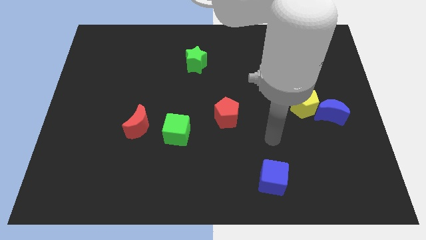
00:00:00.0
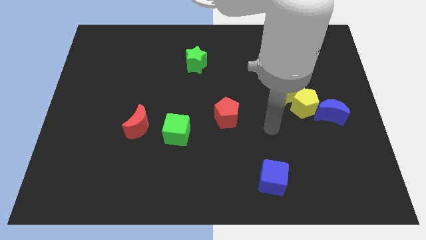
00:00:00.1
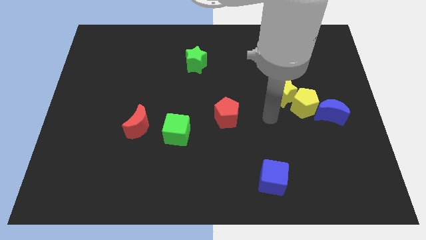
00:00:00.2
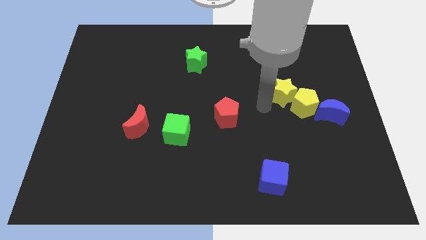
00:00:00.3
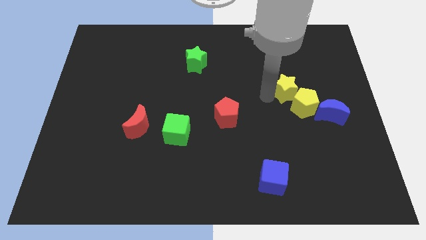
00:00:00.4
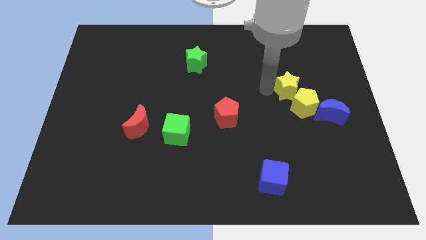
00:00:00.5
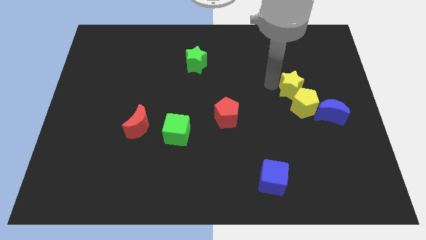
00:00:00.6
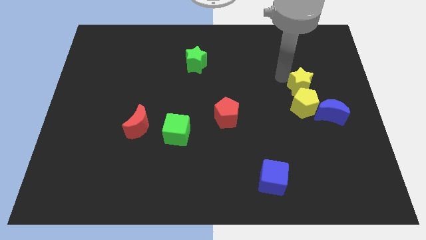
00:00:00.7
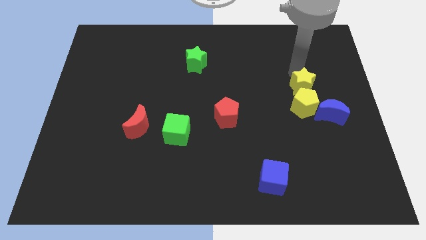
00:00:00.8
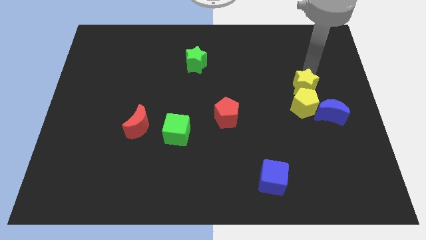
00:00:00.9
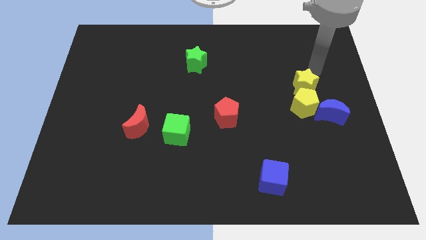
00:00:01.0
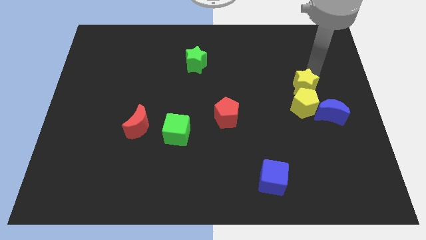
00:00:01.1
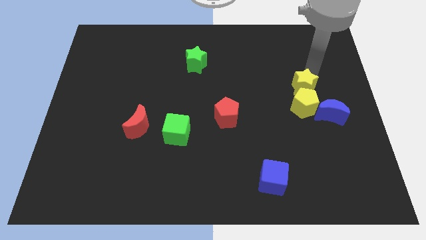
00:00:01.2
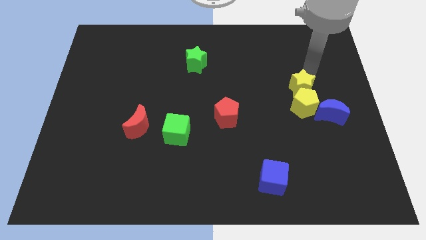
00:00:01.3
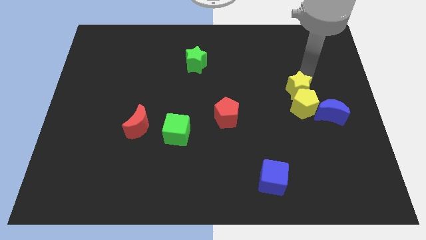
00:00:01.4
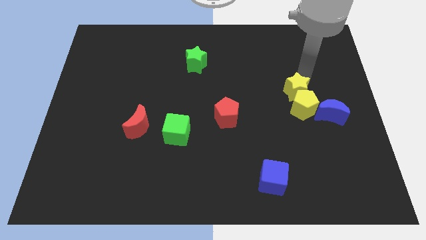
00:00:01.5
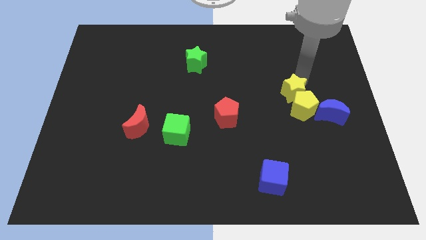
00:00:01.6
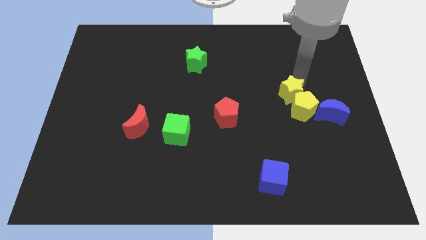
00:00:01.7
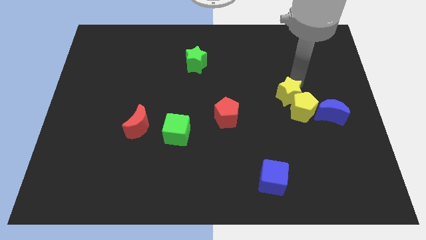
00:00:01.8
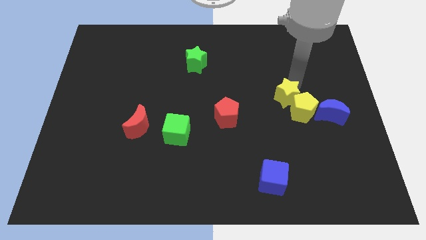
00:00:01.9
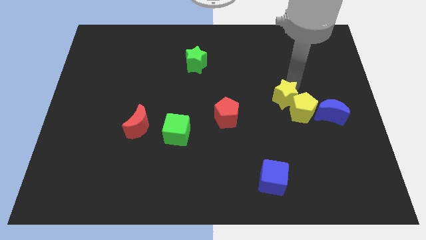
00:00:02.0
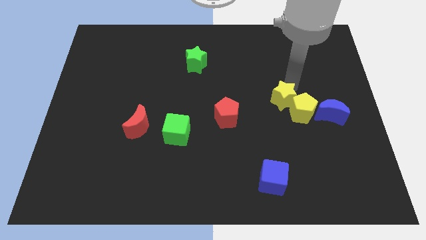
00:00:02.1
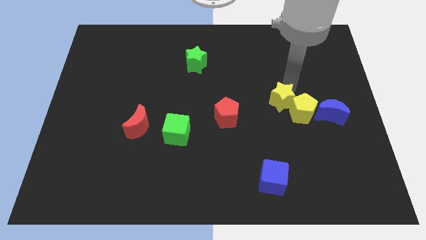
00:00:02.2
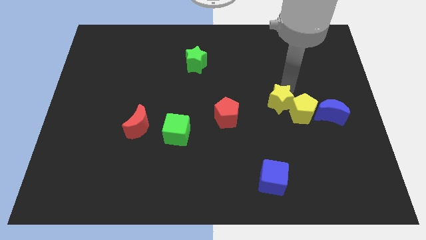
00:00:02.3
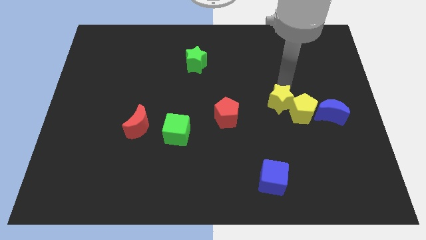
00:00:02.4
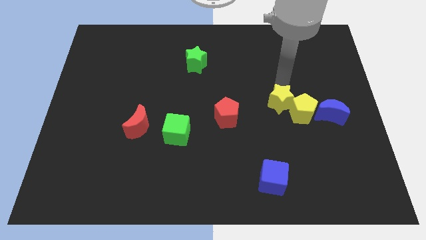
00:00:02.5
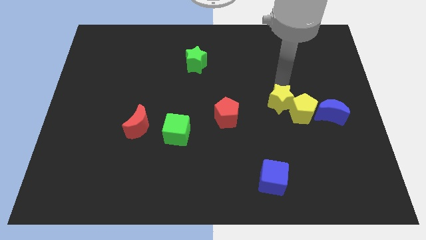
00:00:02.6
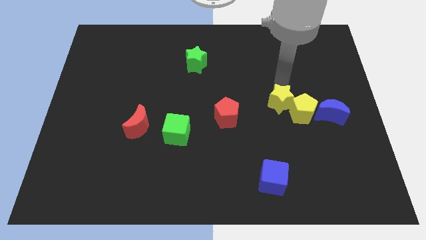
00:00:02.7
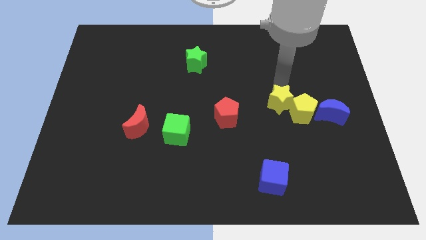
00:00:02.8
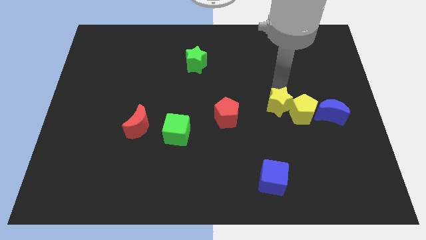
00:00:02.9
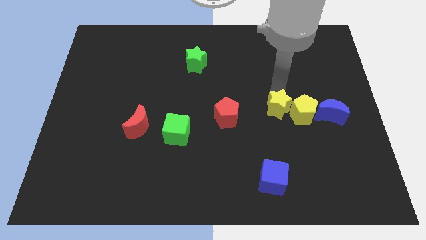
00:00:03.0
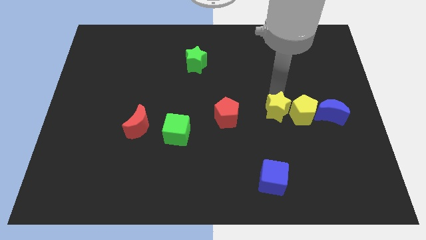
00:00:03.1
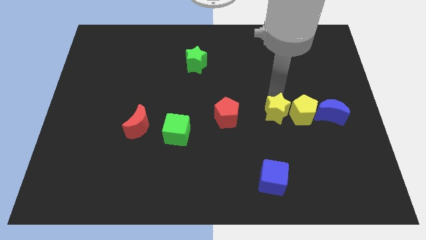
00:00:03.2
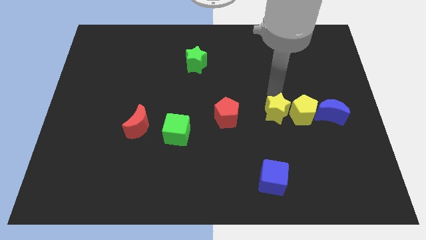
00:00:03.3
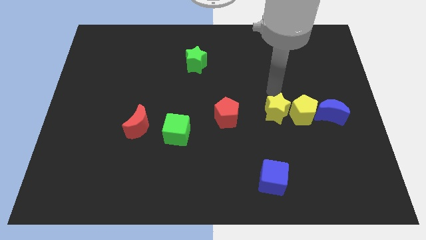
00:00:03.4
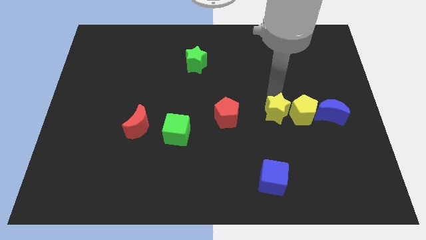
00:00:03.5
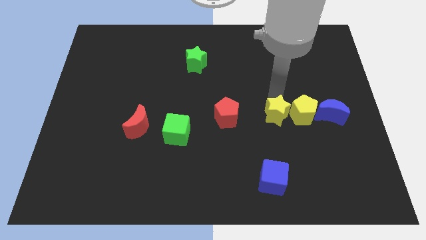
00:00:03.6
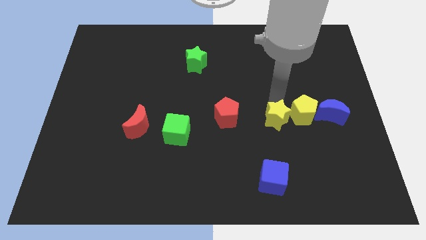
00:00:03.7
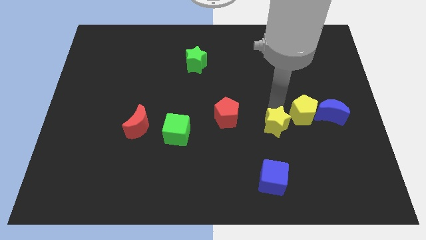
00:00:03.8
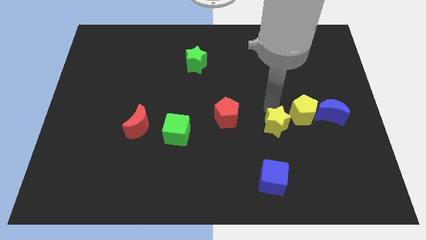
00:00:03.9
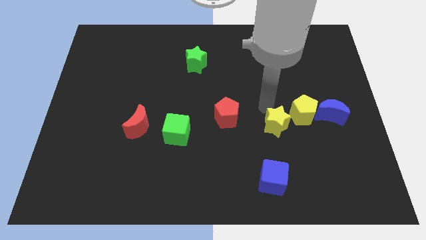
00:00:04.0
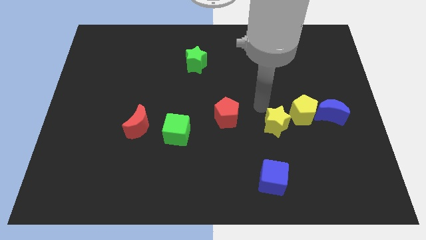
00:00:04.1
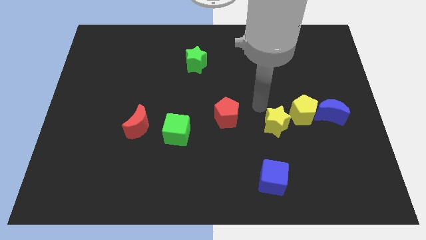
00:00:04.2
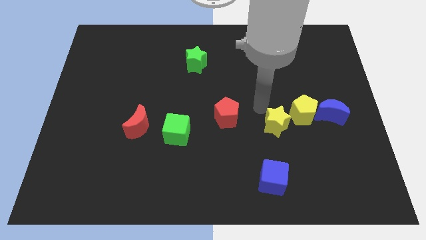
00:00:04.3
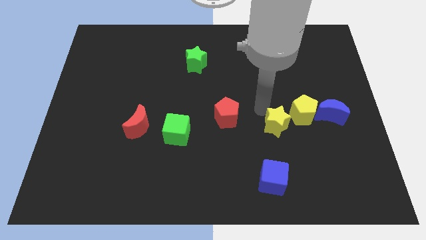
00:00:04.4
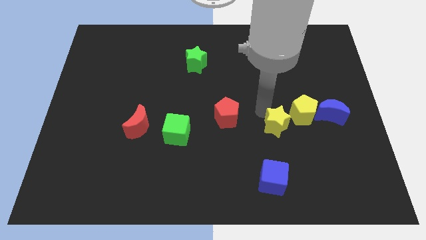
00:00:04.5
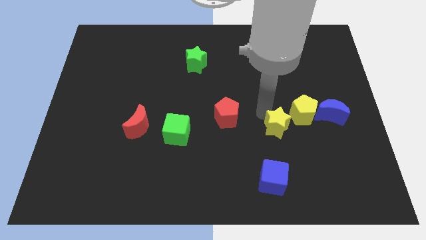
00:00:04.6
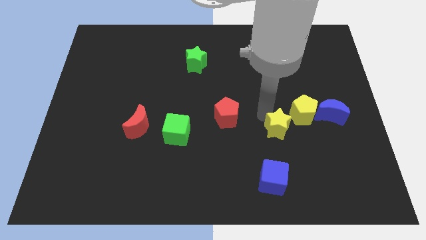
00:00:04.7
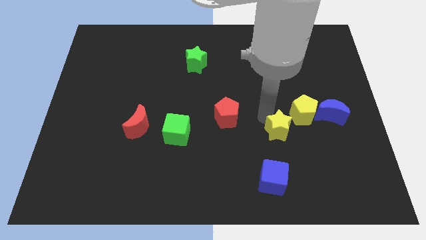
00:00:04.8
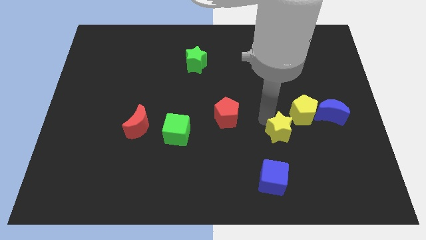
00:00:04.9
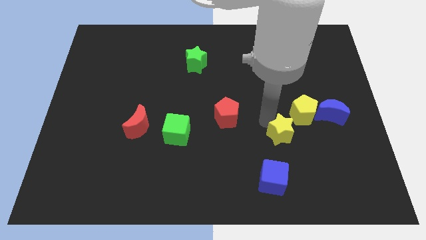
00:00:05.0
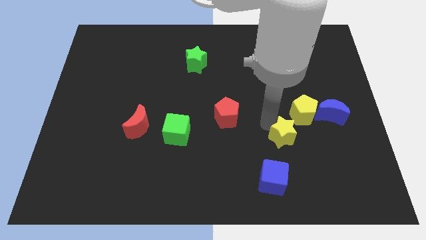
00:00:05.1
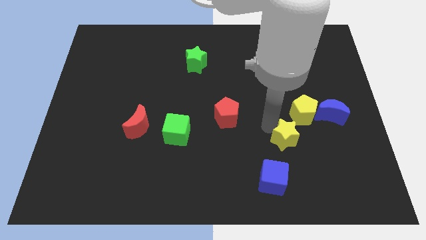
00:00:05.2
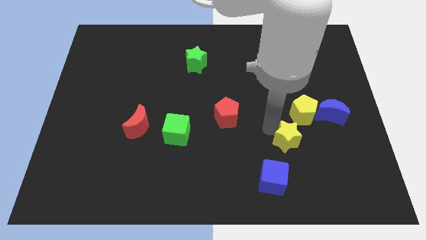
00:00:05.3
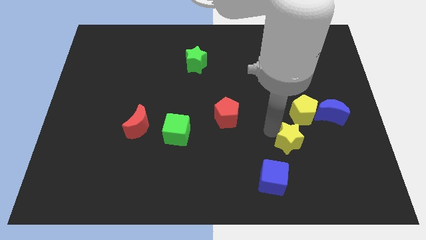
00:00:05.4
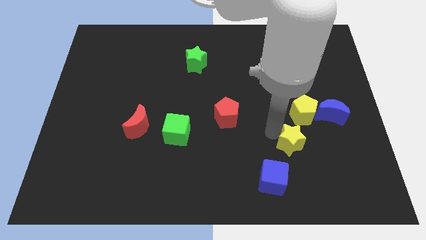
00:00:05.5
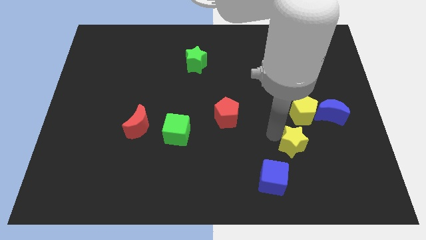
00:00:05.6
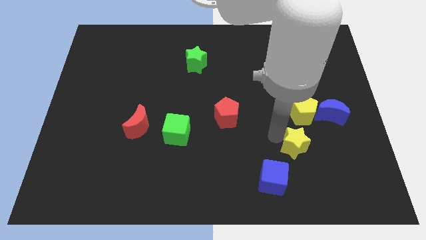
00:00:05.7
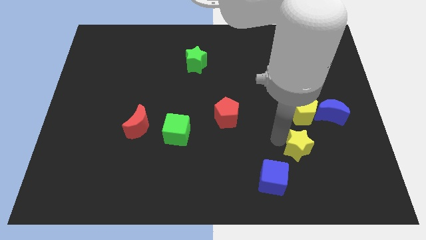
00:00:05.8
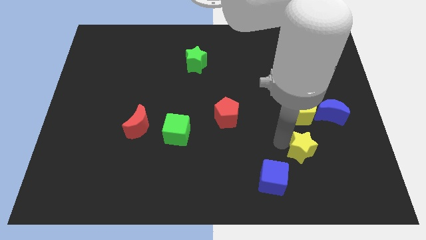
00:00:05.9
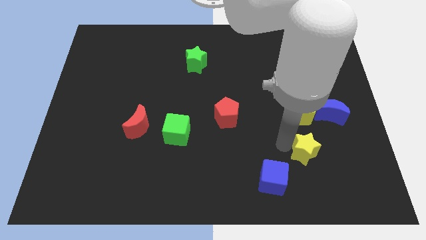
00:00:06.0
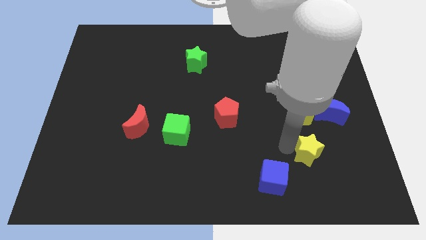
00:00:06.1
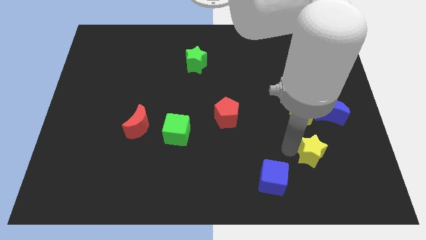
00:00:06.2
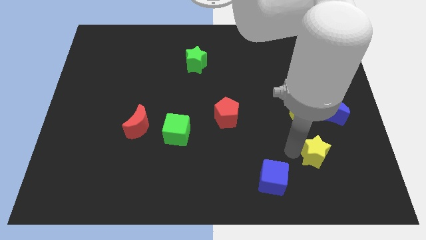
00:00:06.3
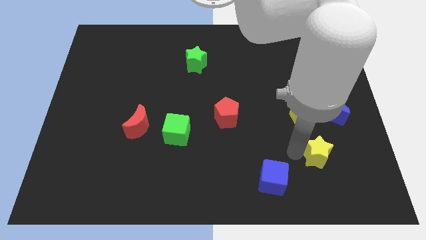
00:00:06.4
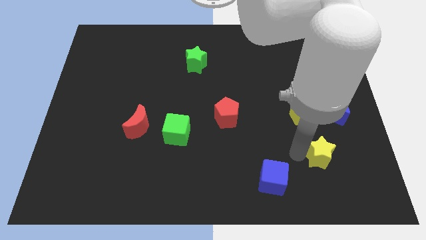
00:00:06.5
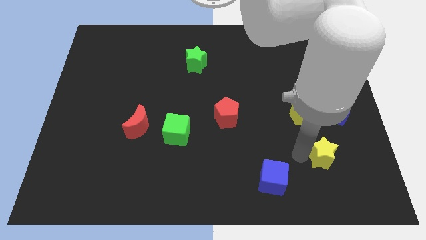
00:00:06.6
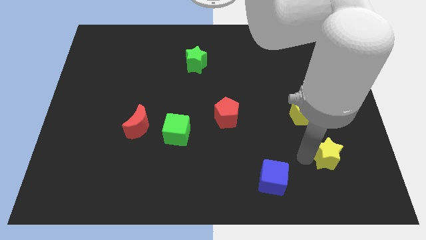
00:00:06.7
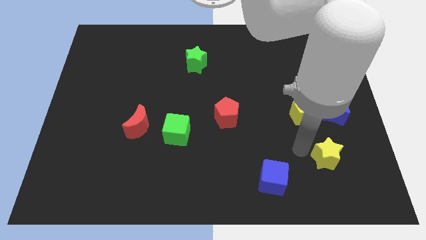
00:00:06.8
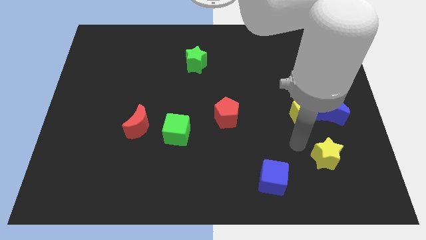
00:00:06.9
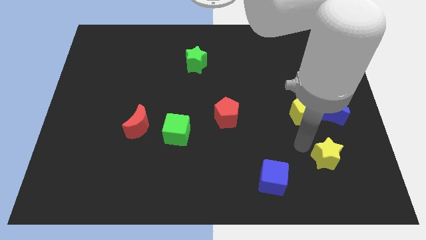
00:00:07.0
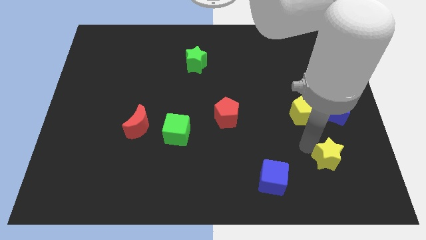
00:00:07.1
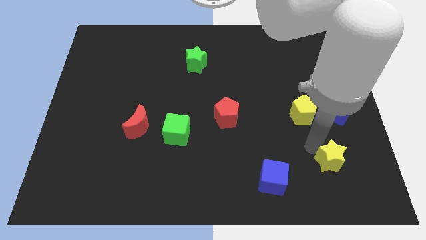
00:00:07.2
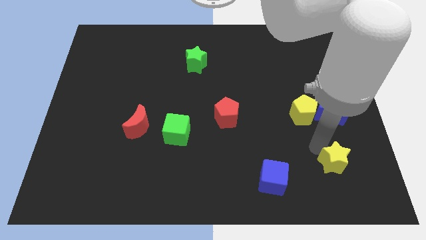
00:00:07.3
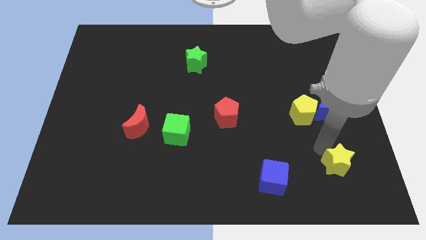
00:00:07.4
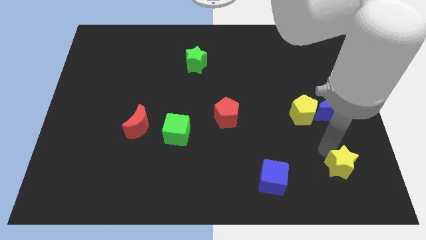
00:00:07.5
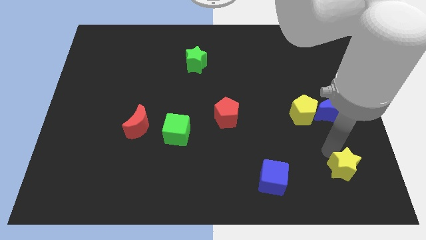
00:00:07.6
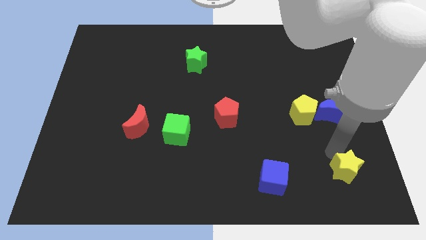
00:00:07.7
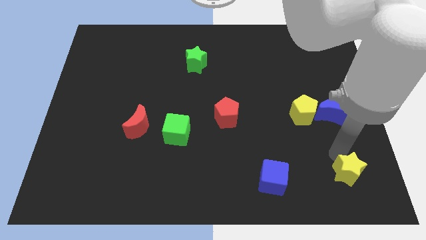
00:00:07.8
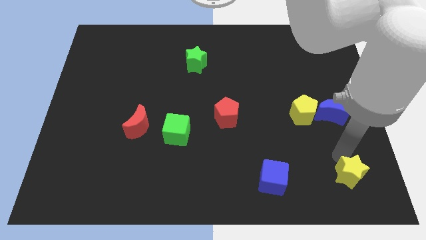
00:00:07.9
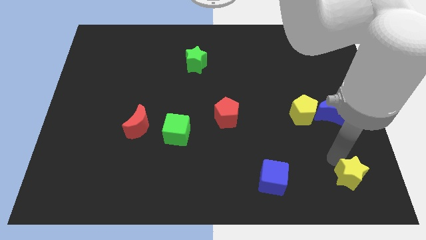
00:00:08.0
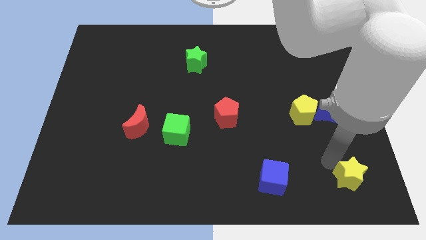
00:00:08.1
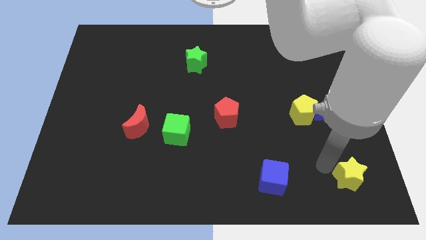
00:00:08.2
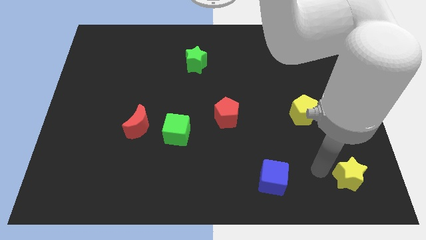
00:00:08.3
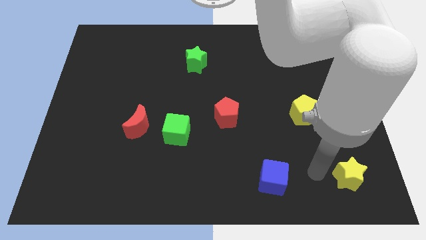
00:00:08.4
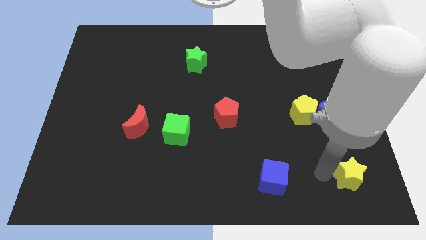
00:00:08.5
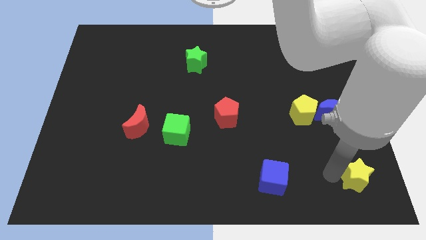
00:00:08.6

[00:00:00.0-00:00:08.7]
push the yellow star to the bottom right corner
